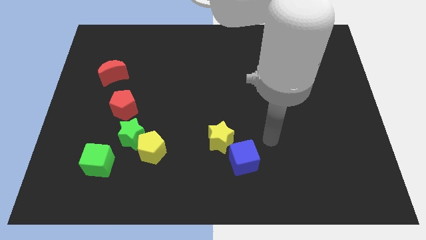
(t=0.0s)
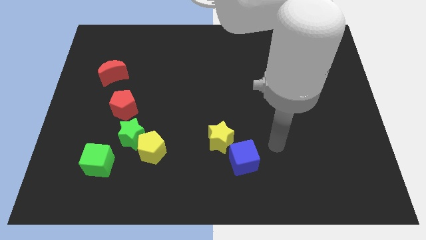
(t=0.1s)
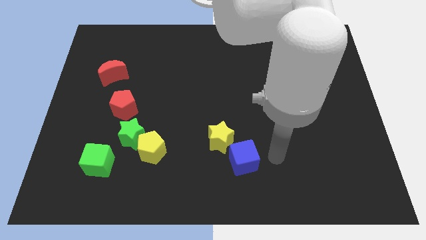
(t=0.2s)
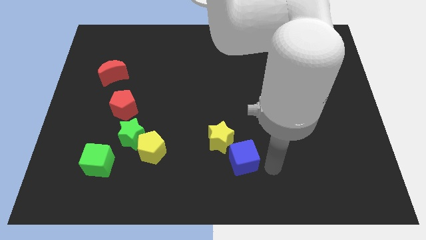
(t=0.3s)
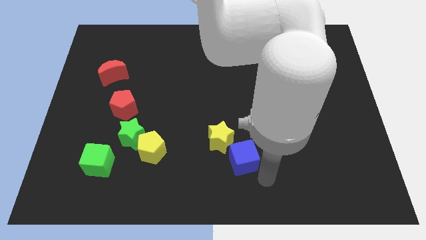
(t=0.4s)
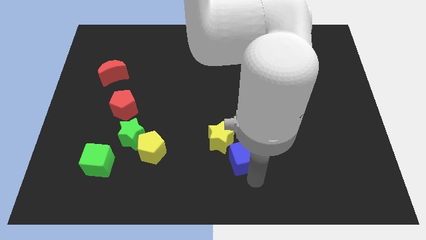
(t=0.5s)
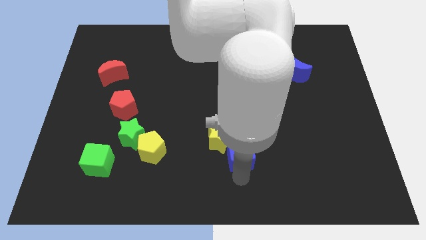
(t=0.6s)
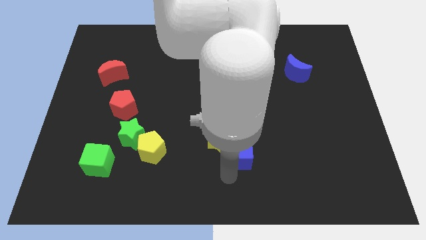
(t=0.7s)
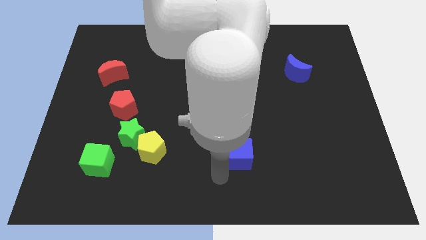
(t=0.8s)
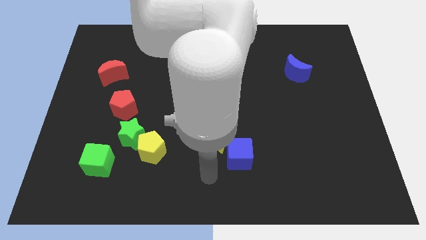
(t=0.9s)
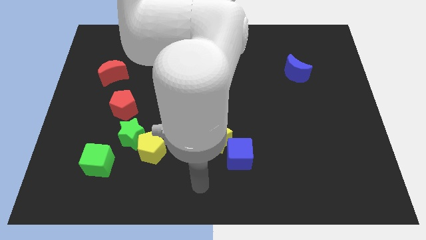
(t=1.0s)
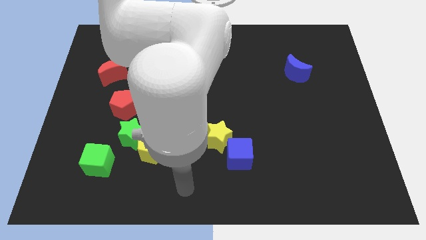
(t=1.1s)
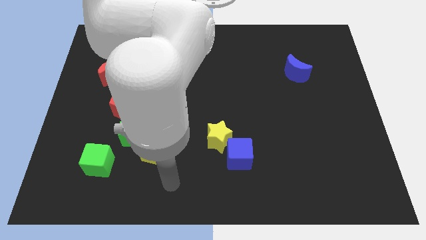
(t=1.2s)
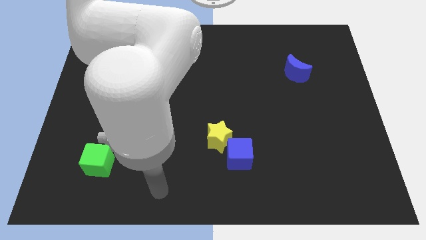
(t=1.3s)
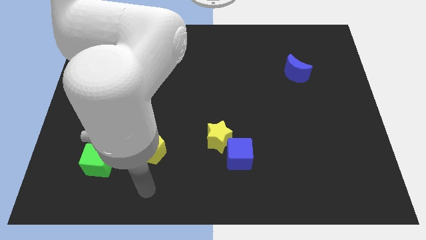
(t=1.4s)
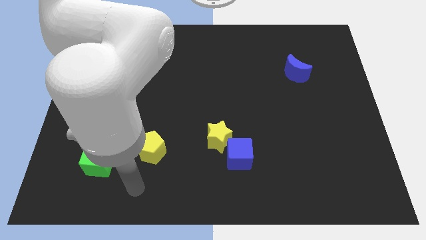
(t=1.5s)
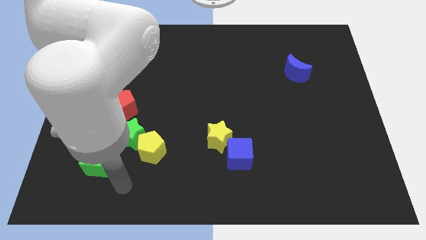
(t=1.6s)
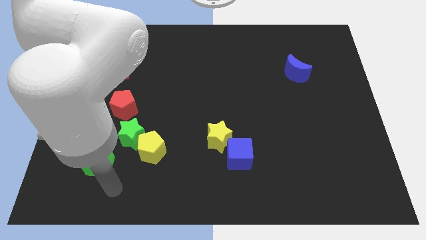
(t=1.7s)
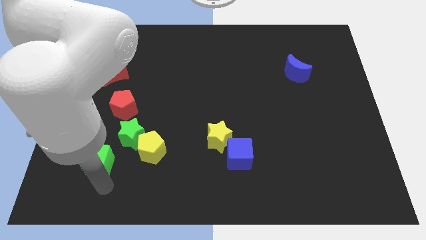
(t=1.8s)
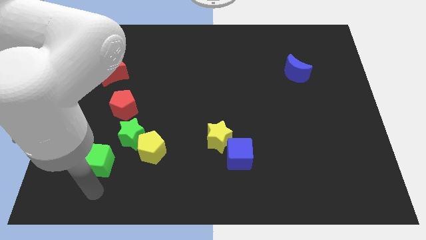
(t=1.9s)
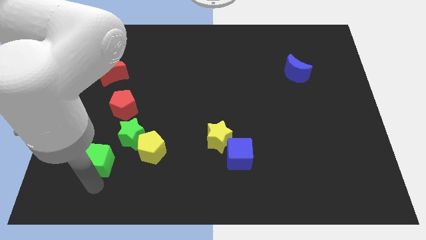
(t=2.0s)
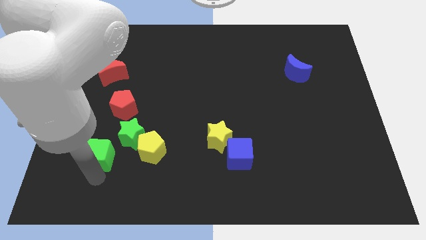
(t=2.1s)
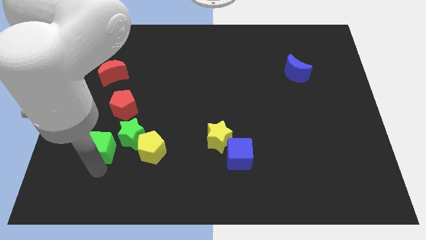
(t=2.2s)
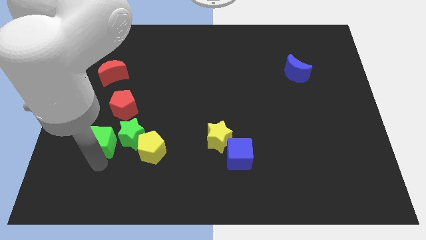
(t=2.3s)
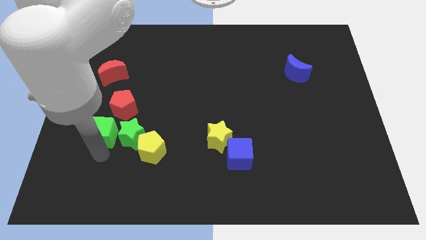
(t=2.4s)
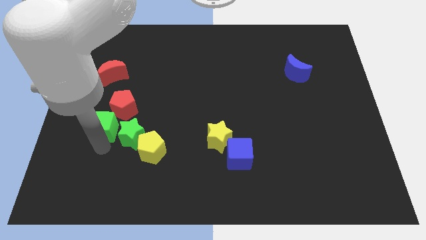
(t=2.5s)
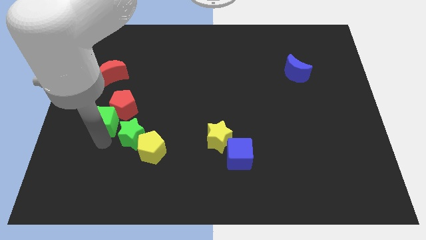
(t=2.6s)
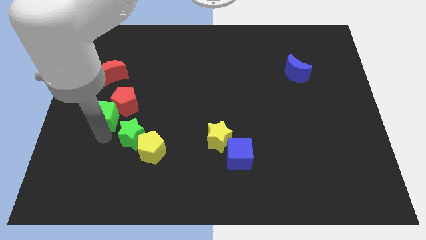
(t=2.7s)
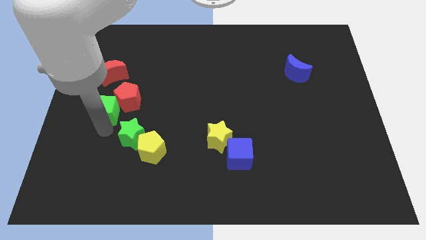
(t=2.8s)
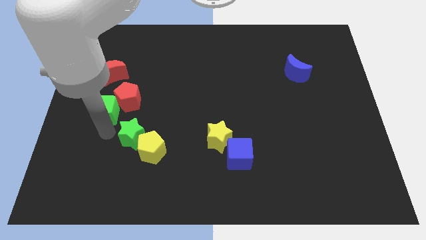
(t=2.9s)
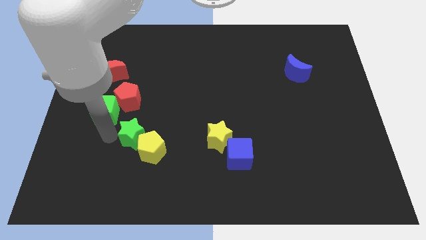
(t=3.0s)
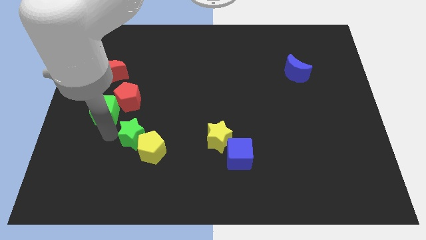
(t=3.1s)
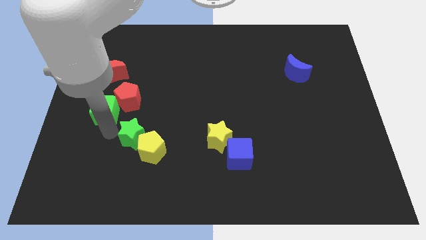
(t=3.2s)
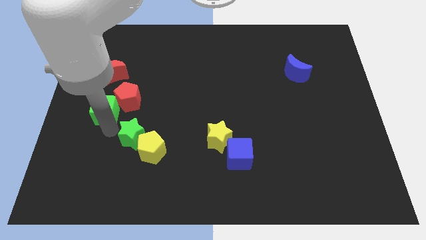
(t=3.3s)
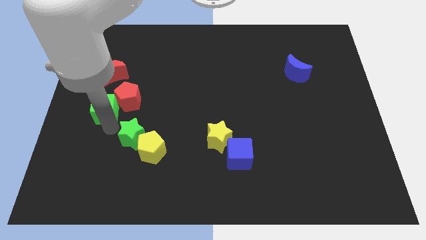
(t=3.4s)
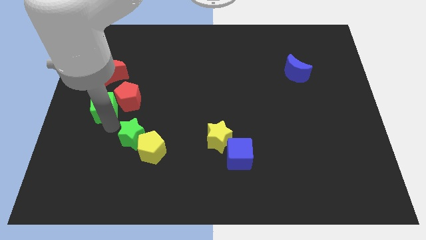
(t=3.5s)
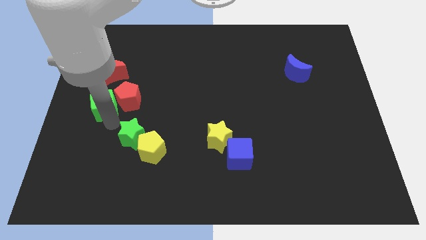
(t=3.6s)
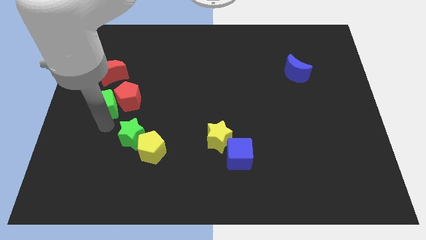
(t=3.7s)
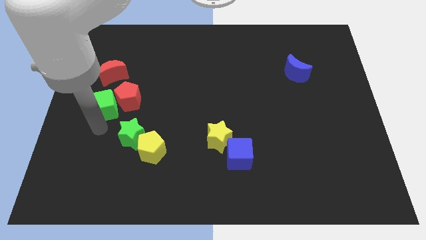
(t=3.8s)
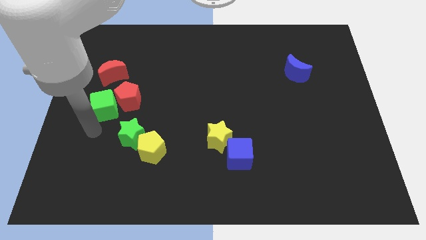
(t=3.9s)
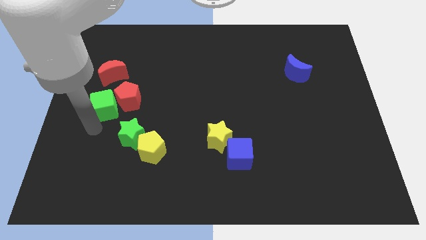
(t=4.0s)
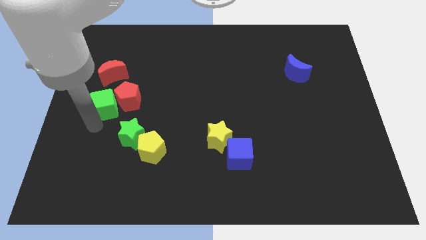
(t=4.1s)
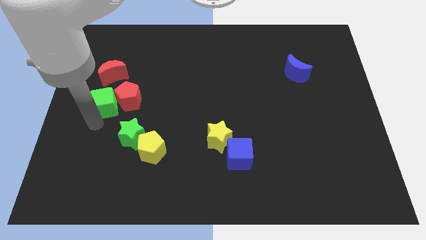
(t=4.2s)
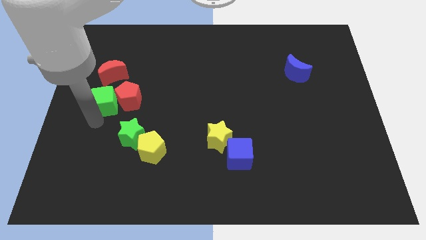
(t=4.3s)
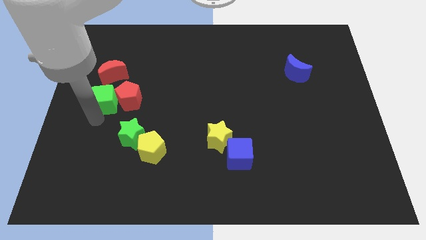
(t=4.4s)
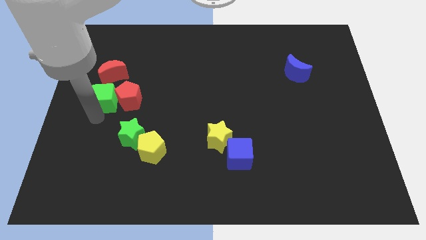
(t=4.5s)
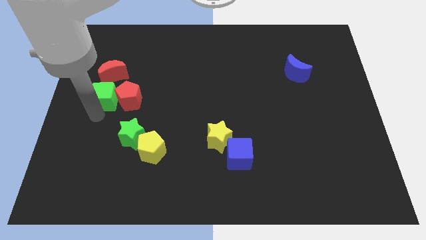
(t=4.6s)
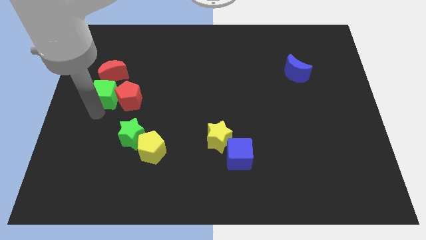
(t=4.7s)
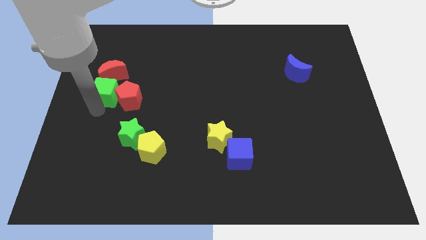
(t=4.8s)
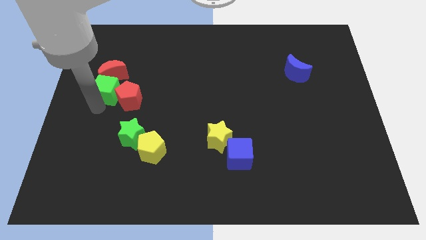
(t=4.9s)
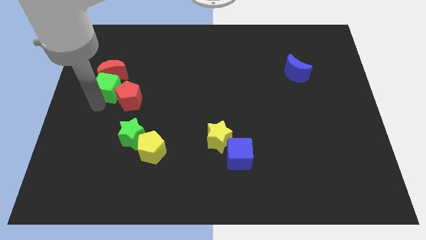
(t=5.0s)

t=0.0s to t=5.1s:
slide the green cube upwards

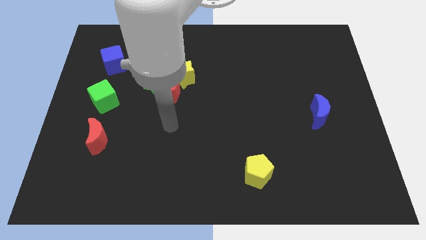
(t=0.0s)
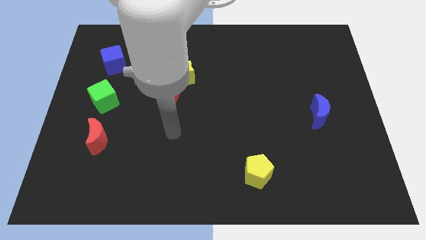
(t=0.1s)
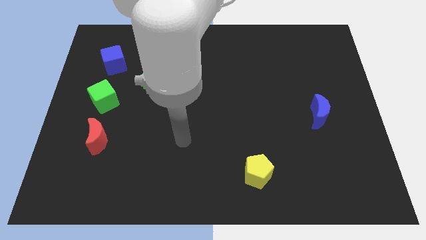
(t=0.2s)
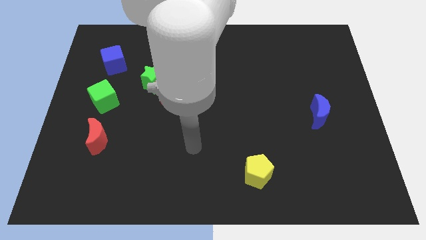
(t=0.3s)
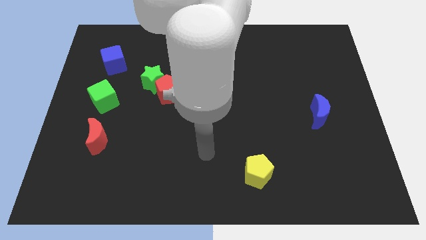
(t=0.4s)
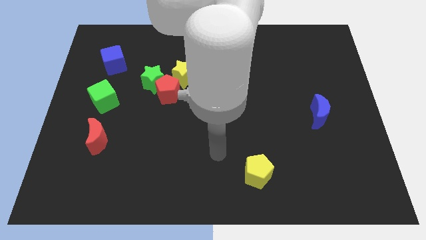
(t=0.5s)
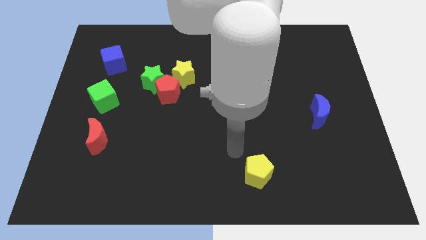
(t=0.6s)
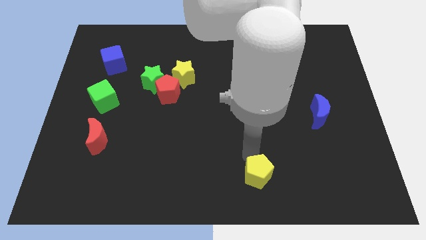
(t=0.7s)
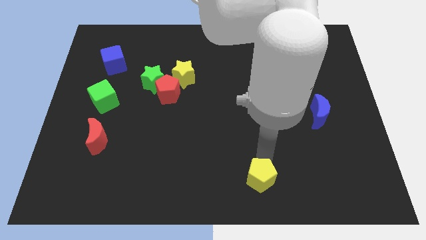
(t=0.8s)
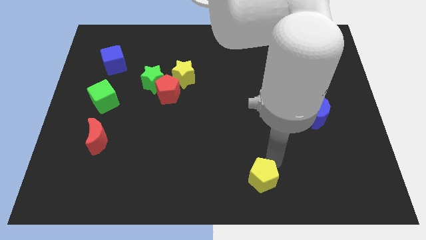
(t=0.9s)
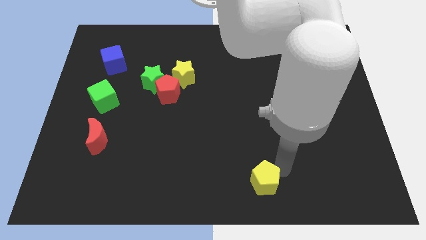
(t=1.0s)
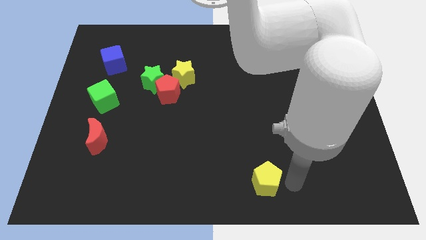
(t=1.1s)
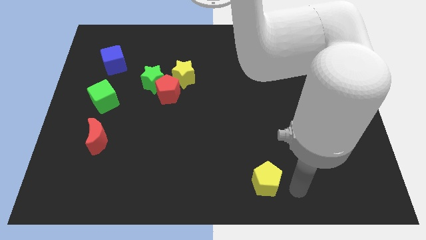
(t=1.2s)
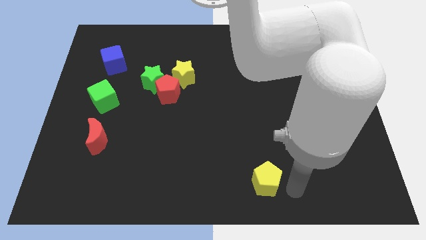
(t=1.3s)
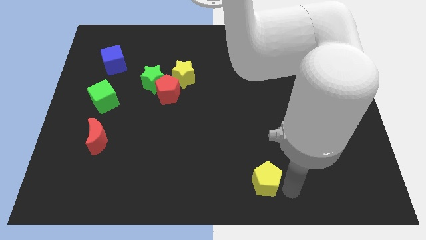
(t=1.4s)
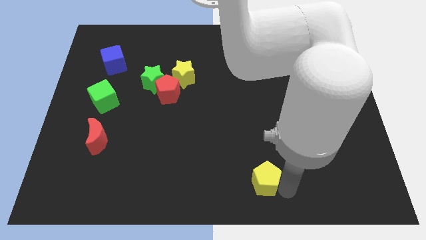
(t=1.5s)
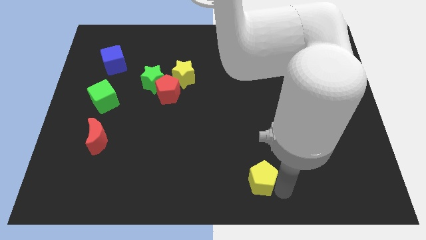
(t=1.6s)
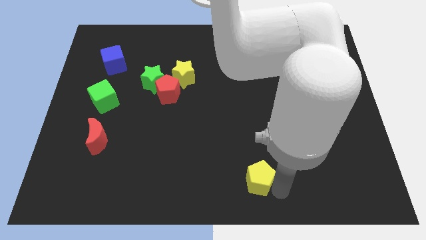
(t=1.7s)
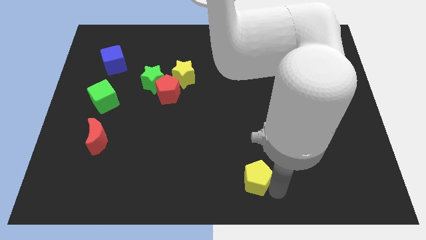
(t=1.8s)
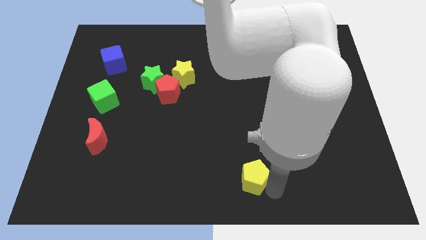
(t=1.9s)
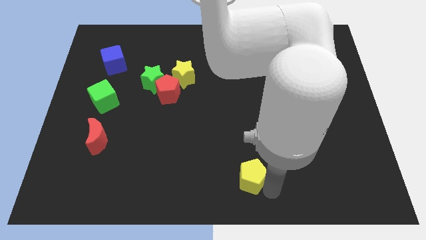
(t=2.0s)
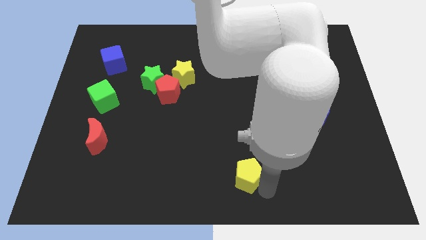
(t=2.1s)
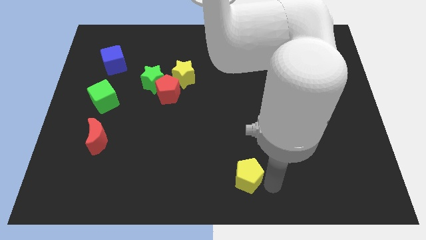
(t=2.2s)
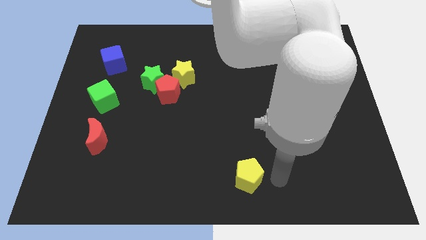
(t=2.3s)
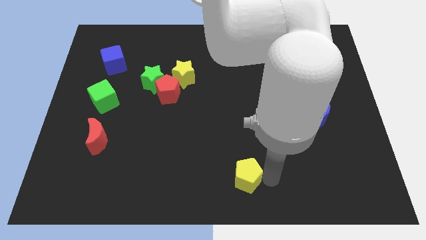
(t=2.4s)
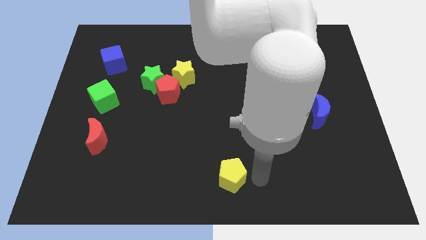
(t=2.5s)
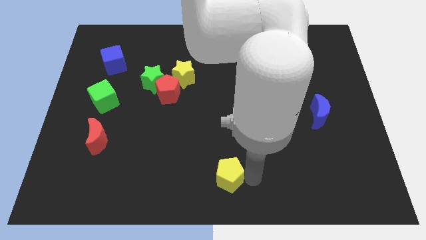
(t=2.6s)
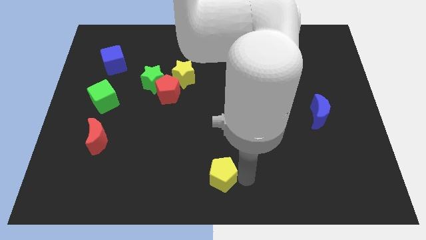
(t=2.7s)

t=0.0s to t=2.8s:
slightly push the yellow pentagon left
